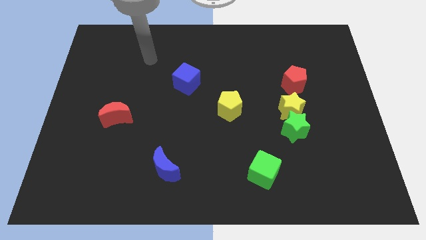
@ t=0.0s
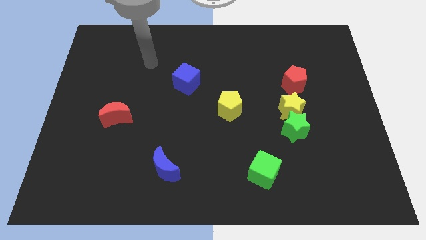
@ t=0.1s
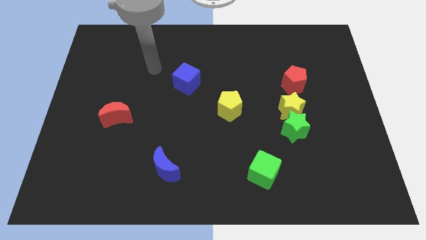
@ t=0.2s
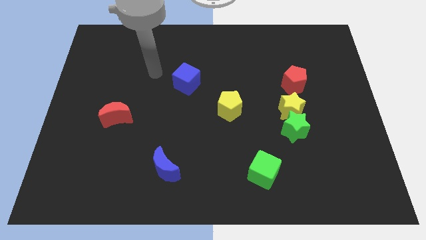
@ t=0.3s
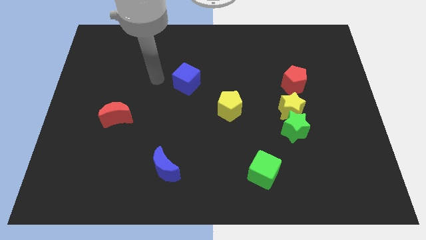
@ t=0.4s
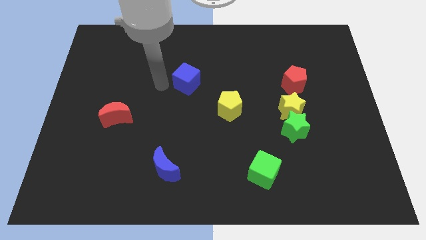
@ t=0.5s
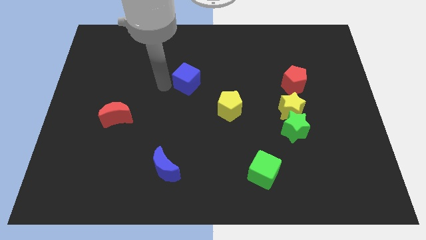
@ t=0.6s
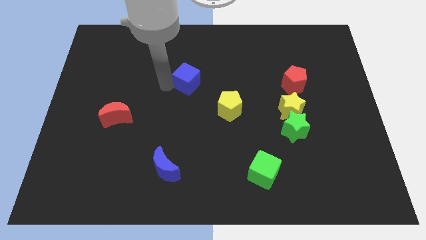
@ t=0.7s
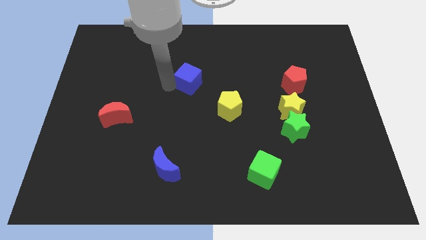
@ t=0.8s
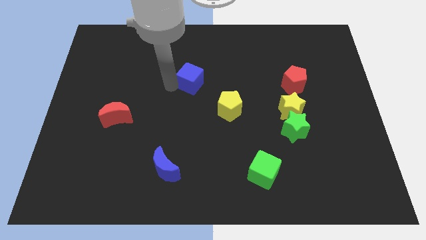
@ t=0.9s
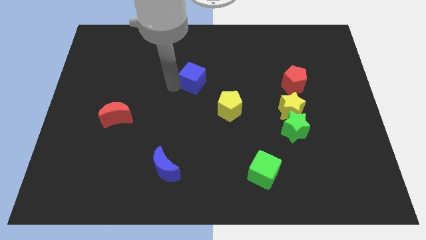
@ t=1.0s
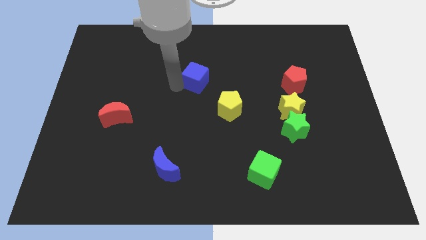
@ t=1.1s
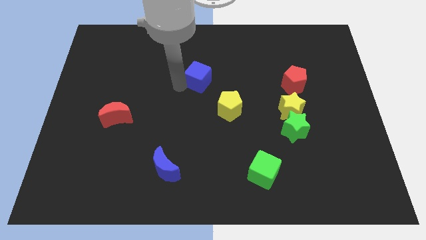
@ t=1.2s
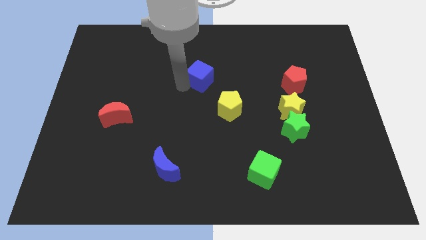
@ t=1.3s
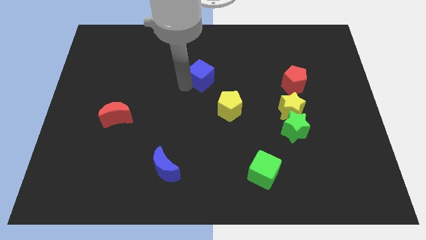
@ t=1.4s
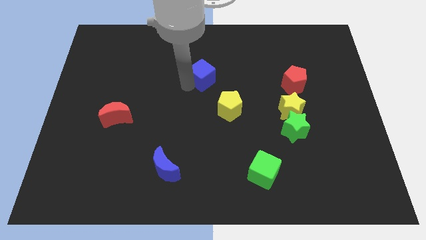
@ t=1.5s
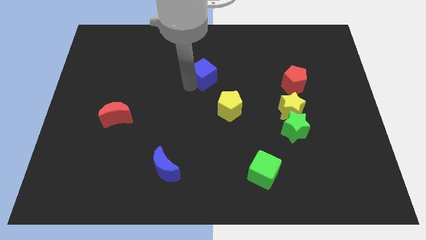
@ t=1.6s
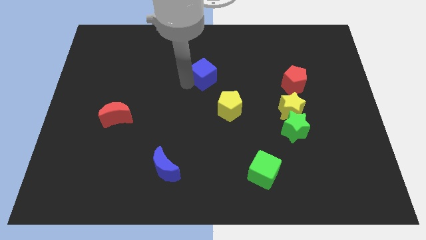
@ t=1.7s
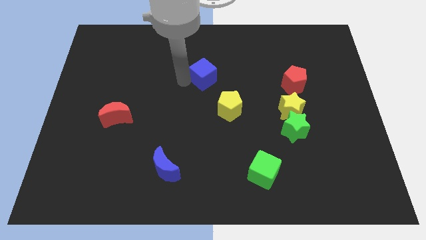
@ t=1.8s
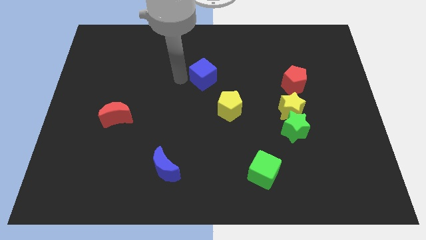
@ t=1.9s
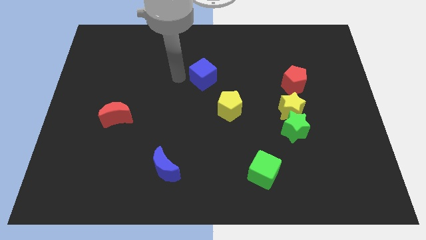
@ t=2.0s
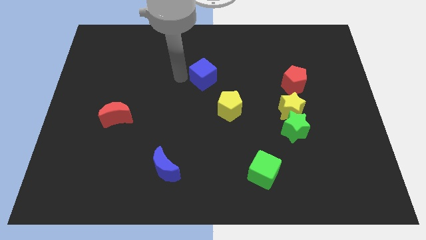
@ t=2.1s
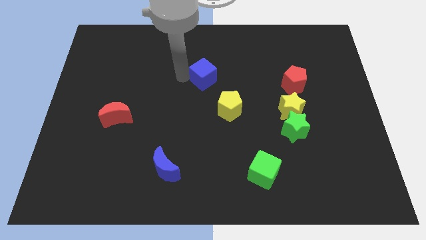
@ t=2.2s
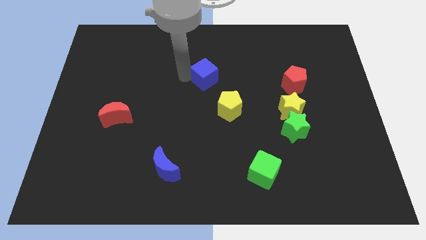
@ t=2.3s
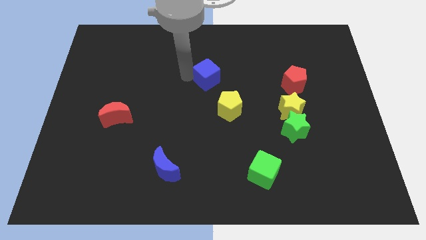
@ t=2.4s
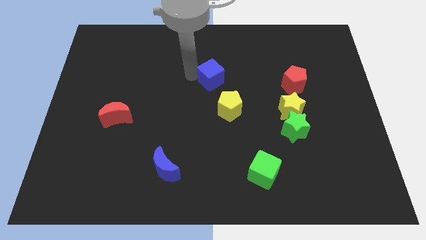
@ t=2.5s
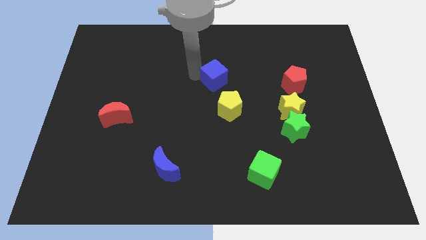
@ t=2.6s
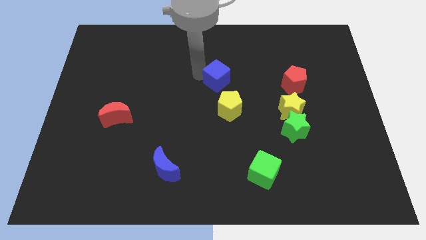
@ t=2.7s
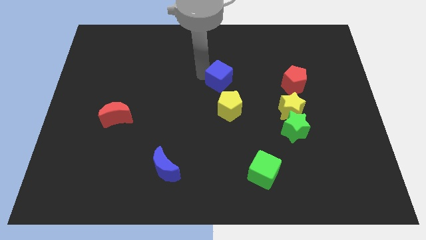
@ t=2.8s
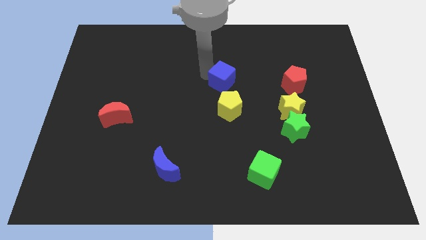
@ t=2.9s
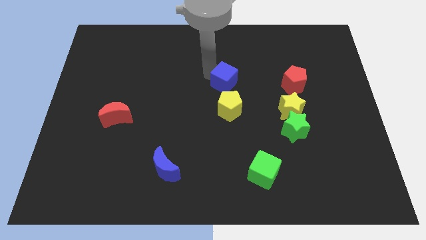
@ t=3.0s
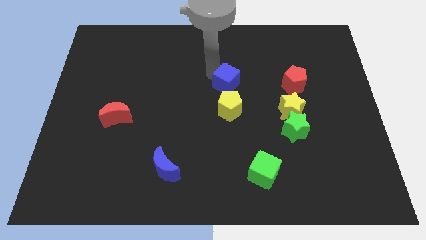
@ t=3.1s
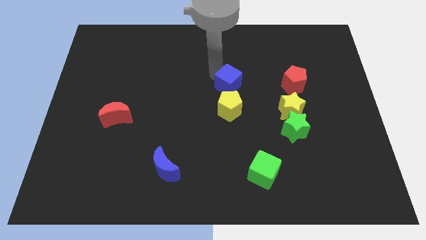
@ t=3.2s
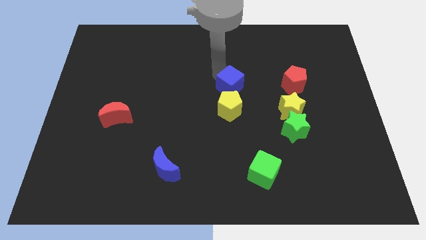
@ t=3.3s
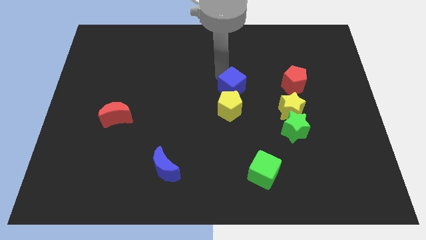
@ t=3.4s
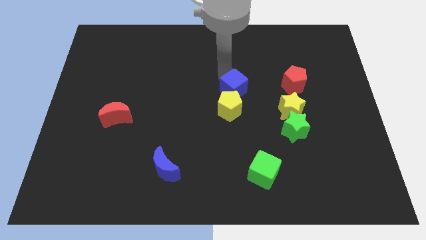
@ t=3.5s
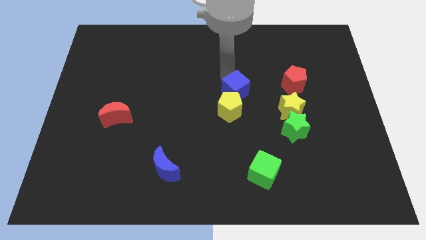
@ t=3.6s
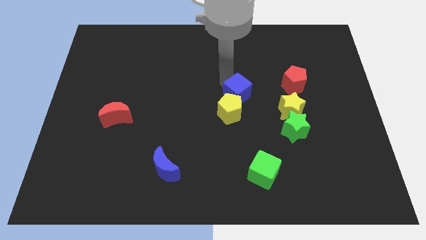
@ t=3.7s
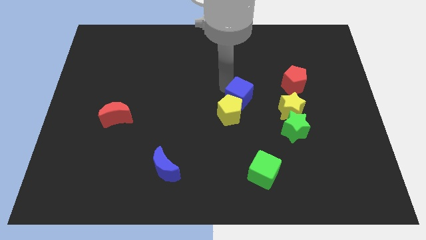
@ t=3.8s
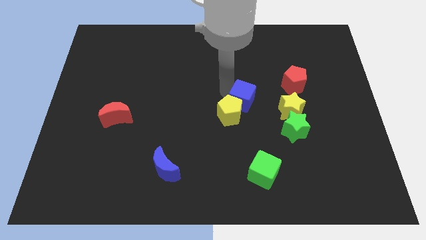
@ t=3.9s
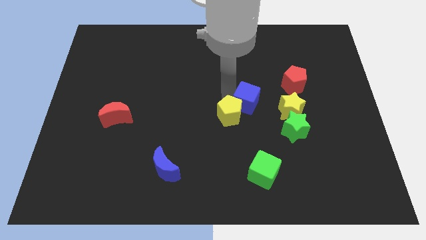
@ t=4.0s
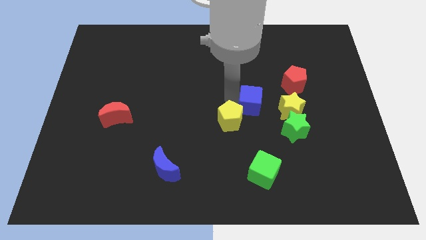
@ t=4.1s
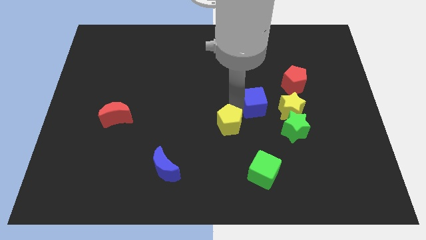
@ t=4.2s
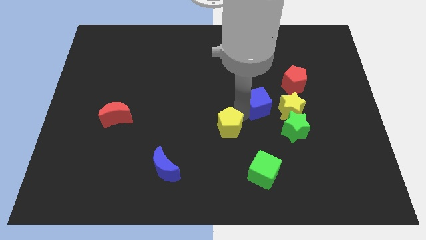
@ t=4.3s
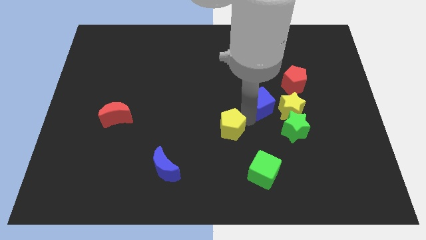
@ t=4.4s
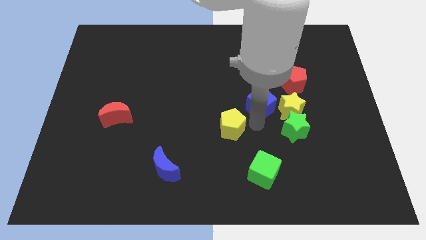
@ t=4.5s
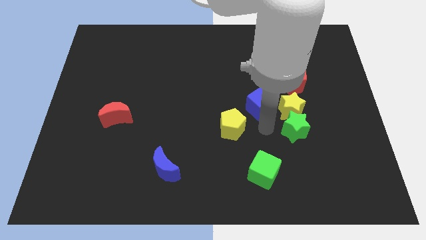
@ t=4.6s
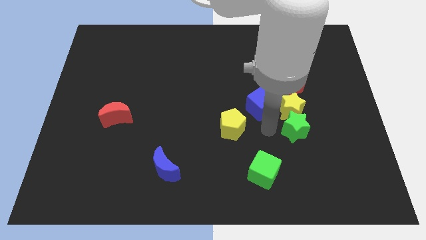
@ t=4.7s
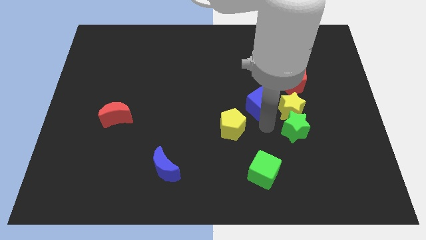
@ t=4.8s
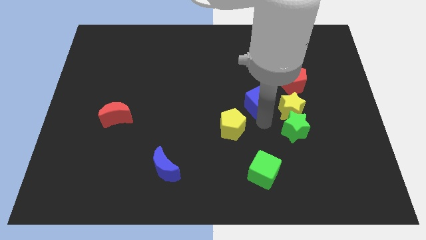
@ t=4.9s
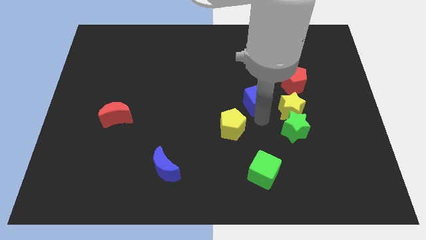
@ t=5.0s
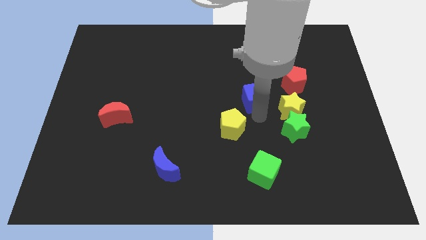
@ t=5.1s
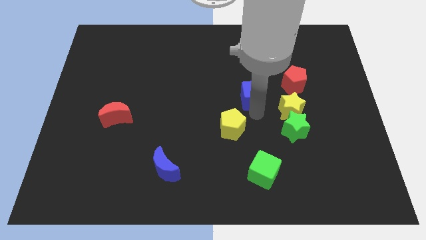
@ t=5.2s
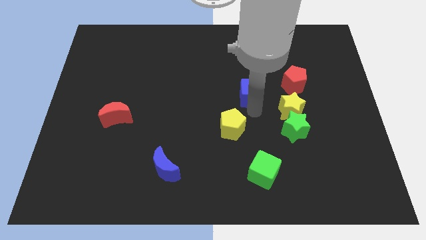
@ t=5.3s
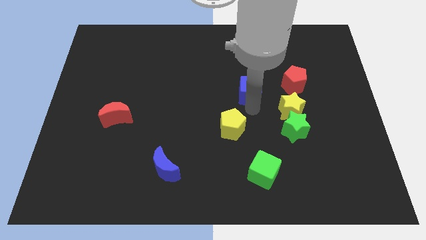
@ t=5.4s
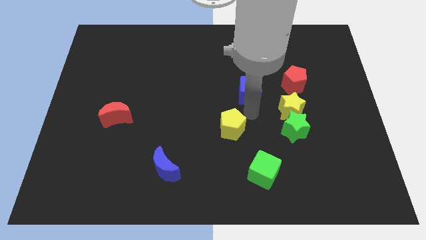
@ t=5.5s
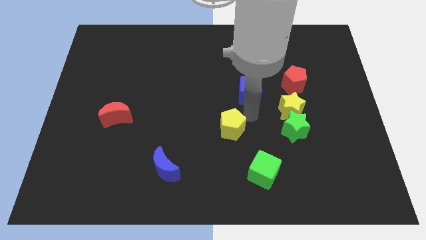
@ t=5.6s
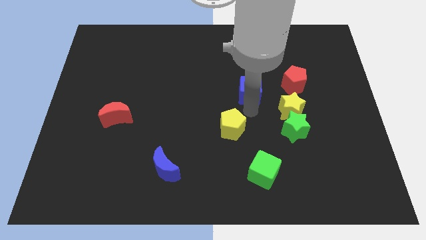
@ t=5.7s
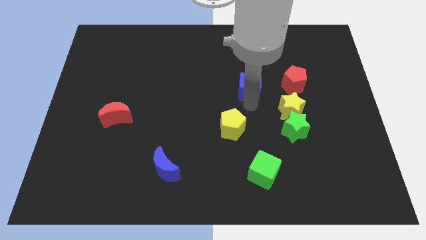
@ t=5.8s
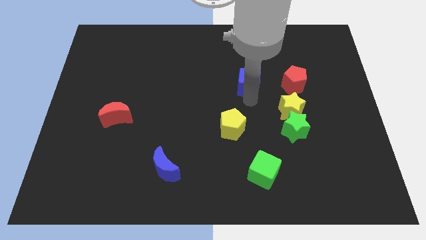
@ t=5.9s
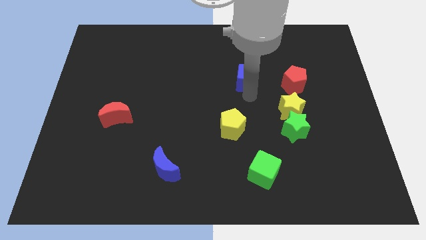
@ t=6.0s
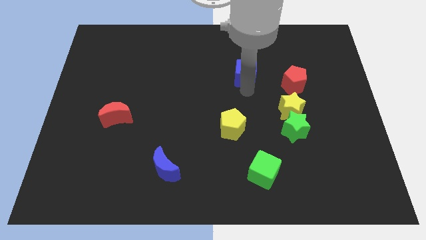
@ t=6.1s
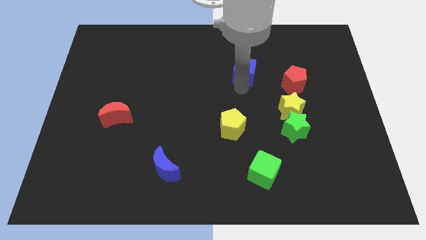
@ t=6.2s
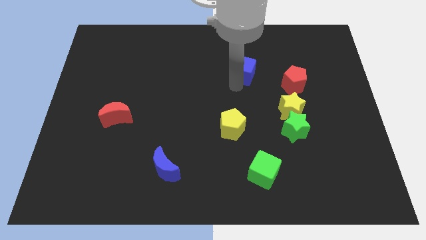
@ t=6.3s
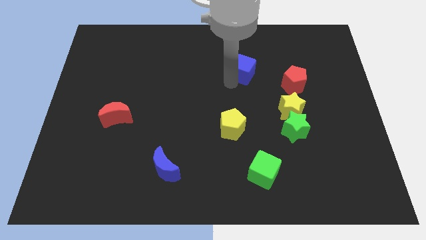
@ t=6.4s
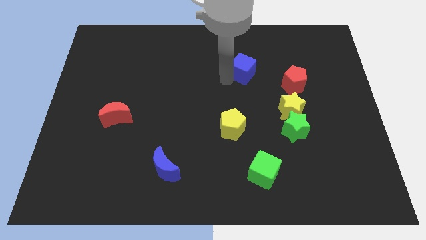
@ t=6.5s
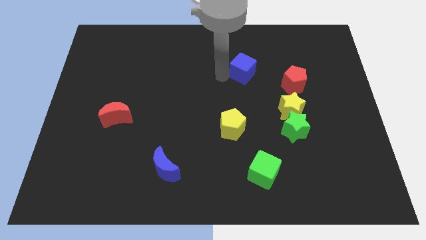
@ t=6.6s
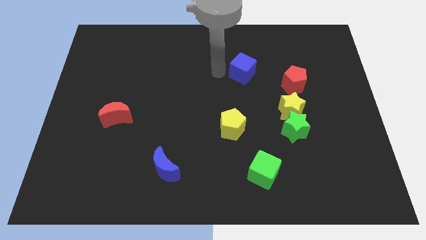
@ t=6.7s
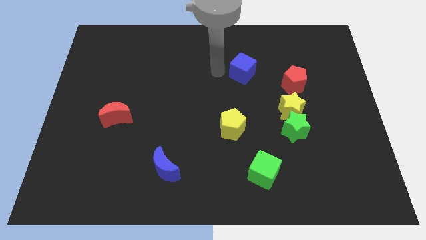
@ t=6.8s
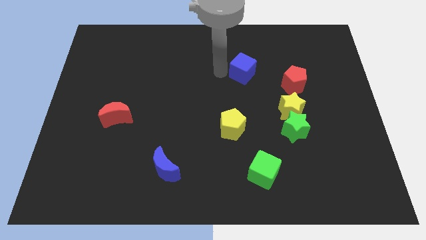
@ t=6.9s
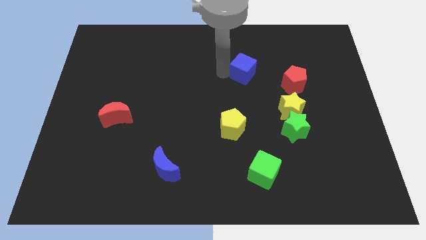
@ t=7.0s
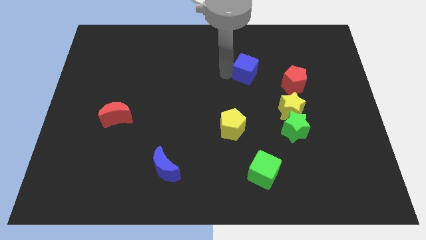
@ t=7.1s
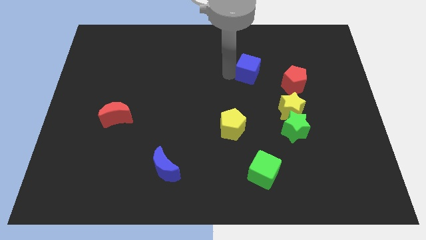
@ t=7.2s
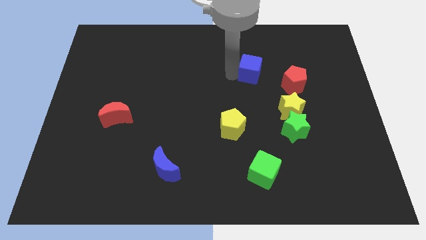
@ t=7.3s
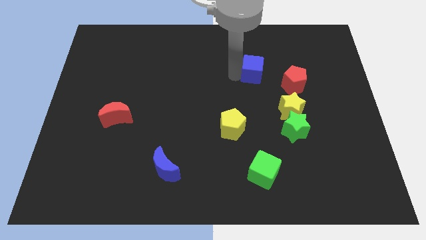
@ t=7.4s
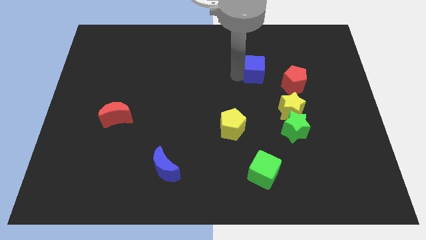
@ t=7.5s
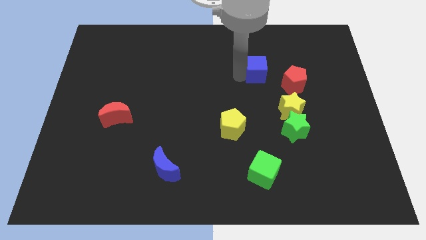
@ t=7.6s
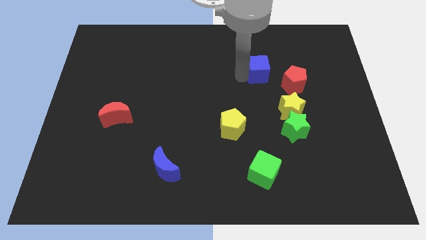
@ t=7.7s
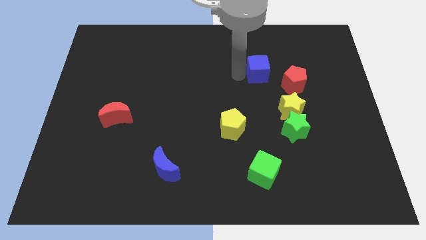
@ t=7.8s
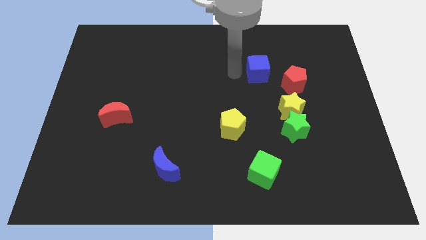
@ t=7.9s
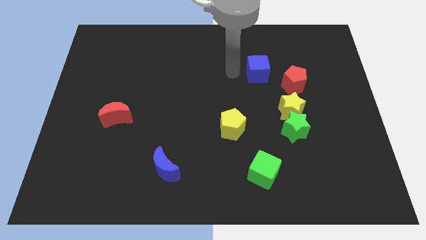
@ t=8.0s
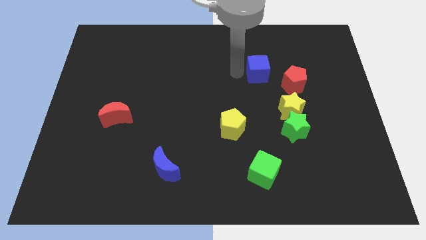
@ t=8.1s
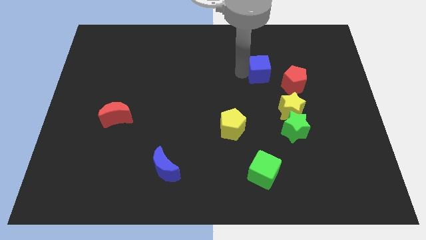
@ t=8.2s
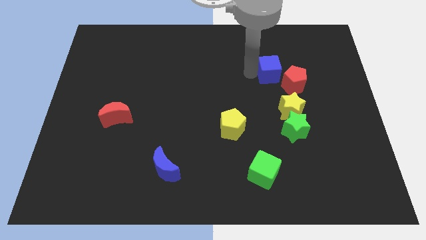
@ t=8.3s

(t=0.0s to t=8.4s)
slide the blue cube right

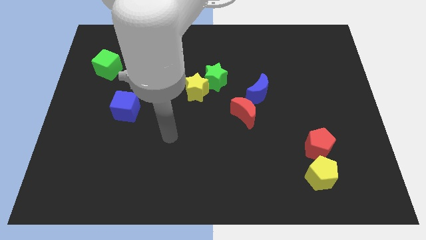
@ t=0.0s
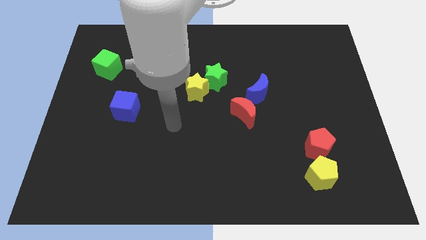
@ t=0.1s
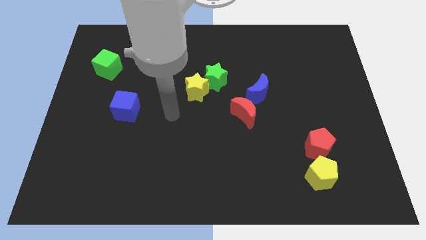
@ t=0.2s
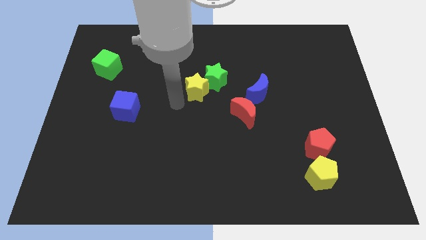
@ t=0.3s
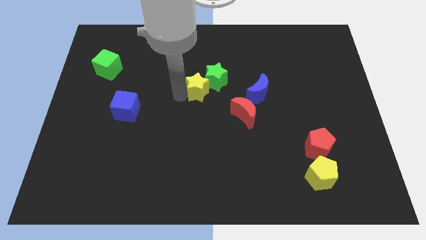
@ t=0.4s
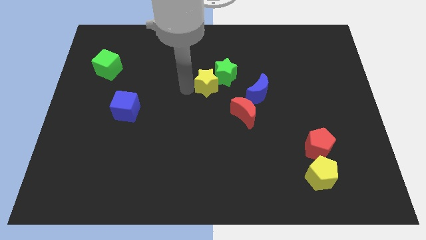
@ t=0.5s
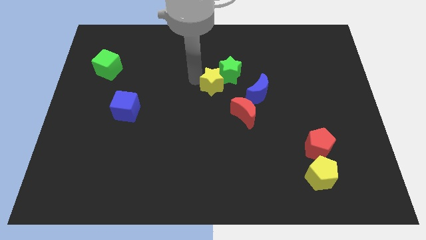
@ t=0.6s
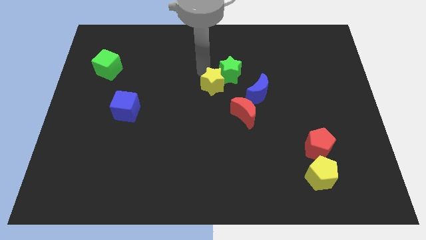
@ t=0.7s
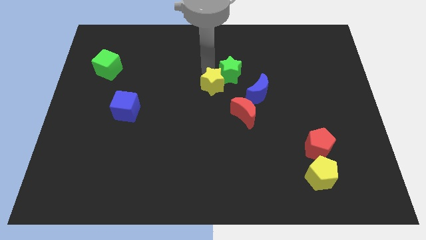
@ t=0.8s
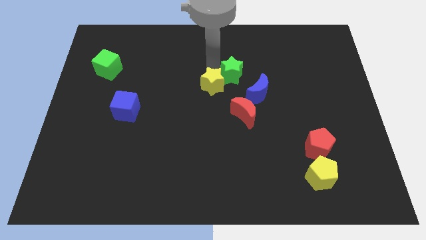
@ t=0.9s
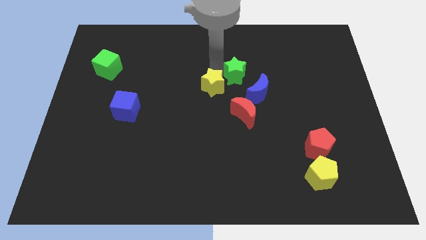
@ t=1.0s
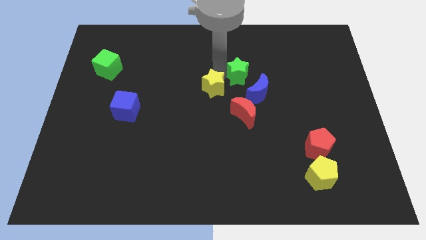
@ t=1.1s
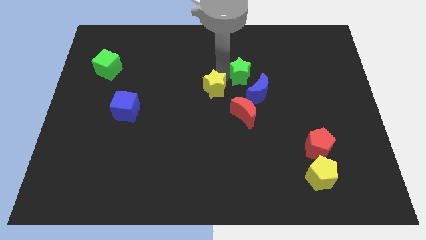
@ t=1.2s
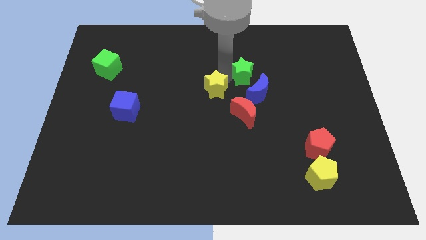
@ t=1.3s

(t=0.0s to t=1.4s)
slide the green star a bit to the right
